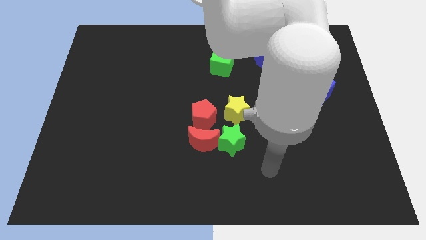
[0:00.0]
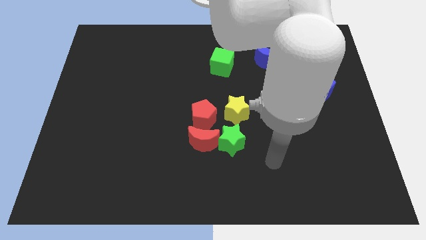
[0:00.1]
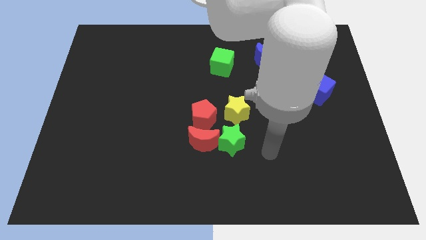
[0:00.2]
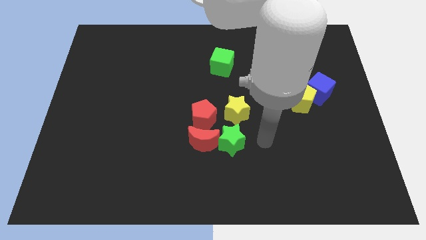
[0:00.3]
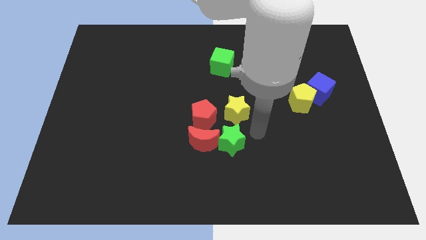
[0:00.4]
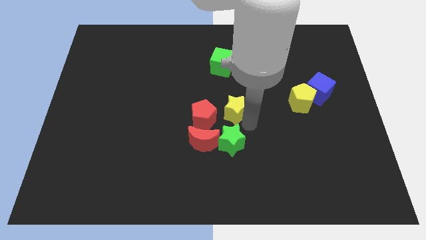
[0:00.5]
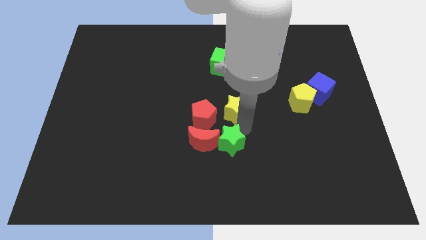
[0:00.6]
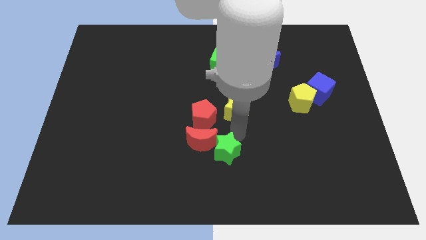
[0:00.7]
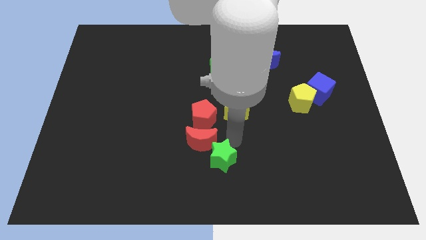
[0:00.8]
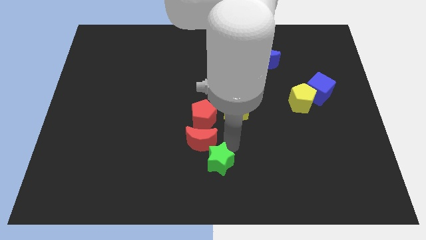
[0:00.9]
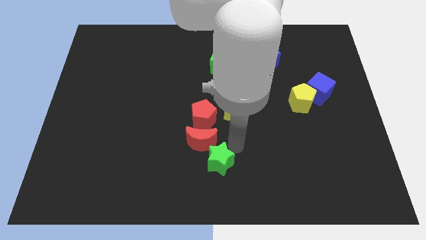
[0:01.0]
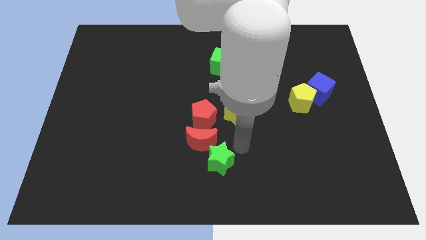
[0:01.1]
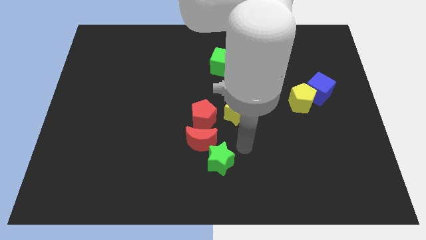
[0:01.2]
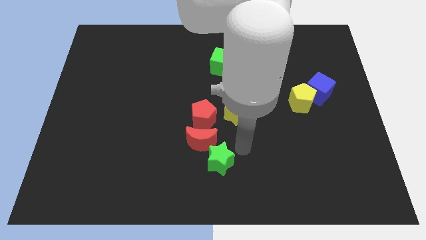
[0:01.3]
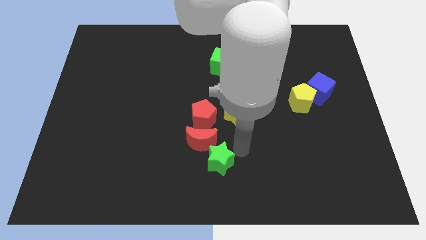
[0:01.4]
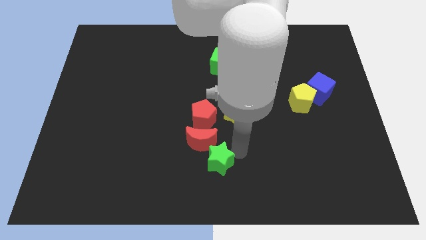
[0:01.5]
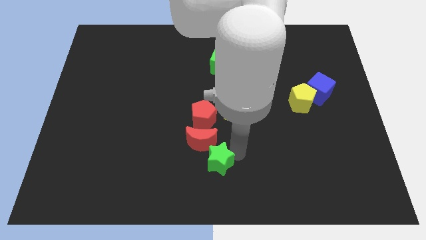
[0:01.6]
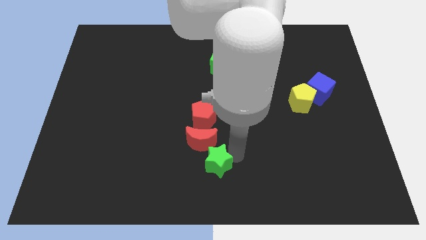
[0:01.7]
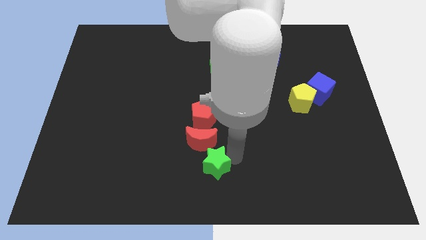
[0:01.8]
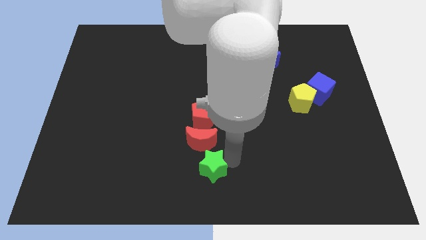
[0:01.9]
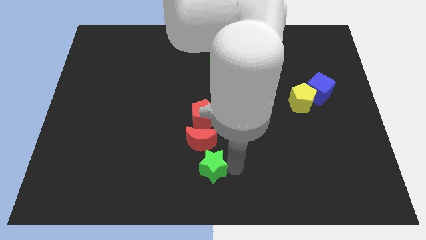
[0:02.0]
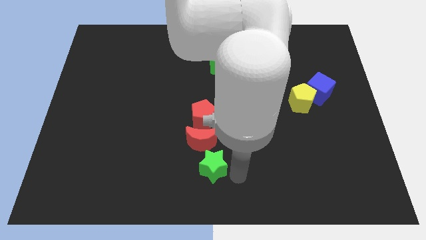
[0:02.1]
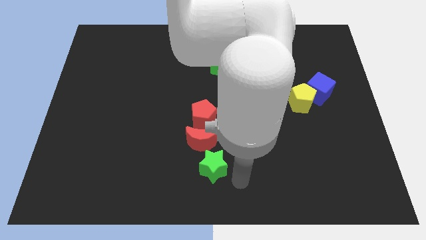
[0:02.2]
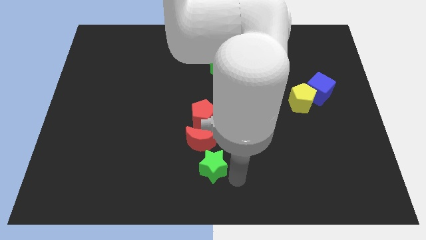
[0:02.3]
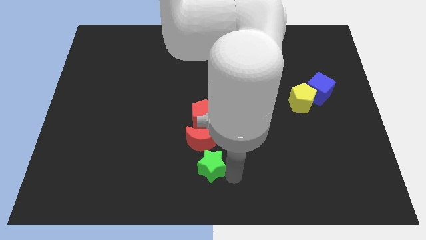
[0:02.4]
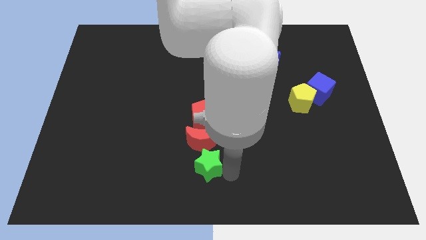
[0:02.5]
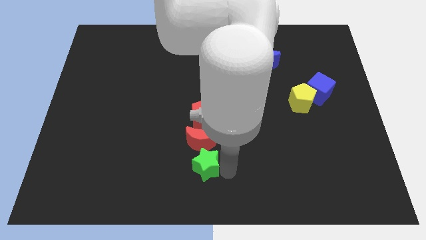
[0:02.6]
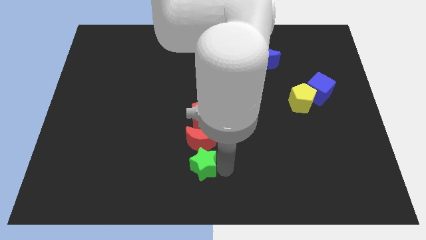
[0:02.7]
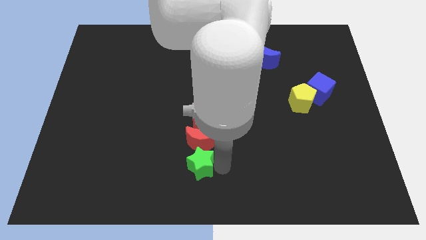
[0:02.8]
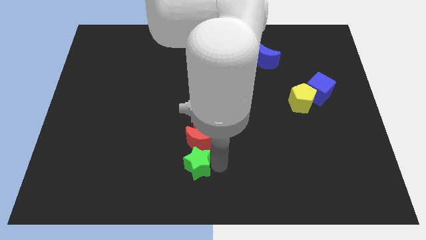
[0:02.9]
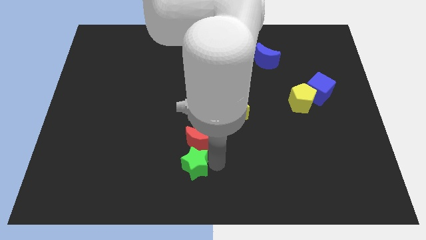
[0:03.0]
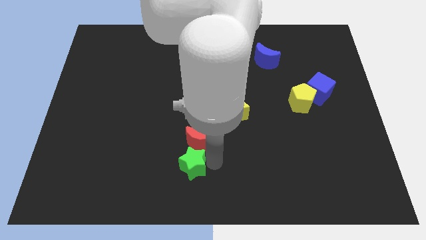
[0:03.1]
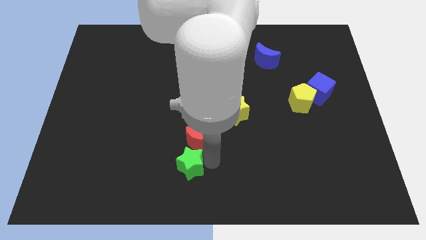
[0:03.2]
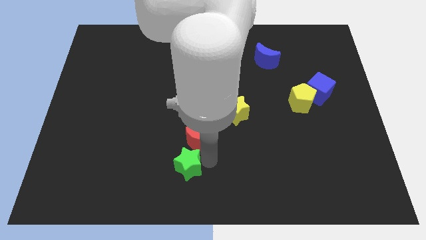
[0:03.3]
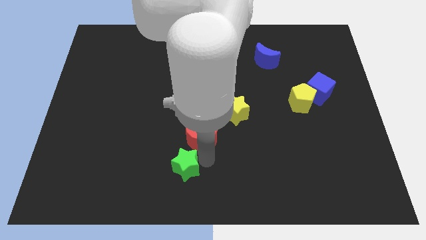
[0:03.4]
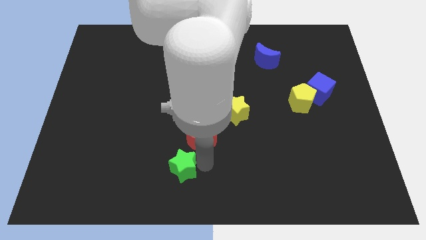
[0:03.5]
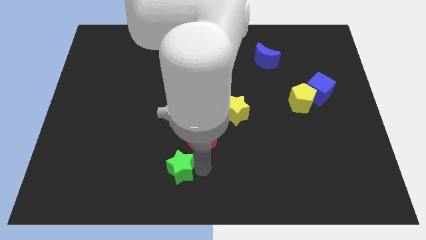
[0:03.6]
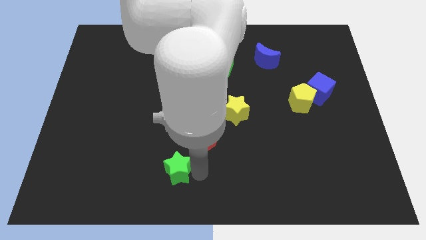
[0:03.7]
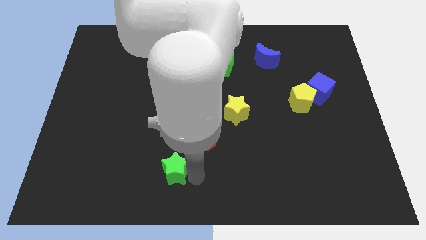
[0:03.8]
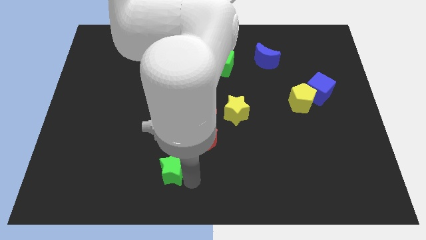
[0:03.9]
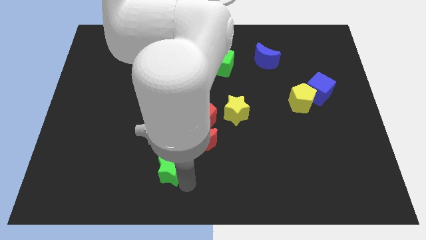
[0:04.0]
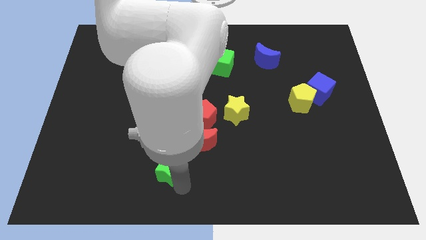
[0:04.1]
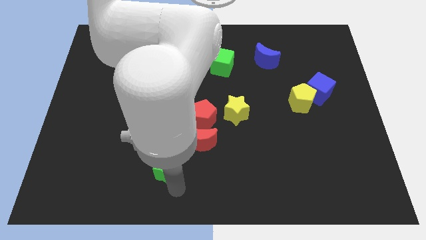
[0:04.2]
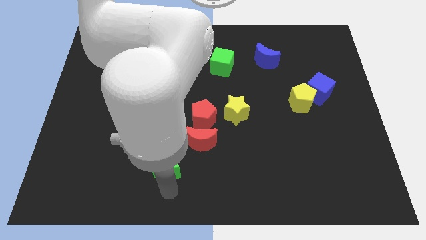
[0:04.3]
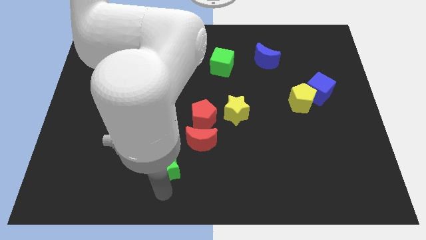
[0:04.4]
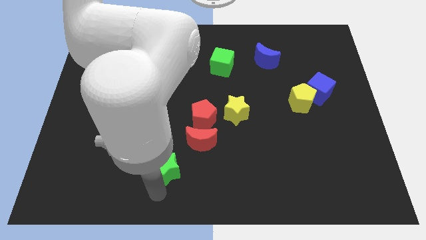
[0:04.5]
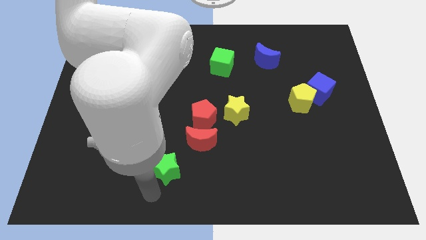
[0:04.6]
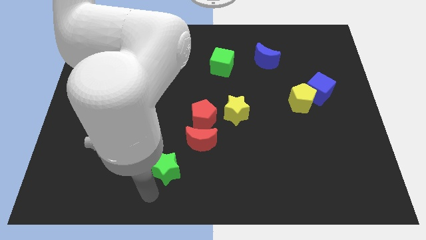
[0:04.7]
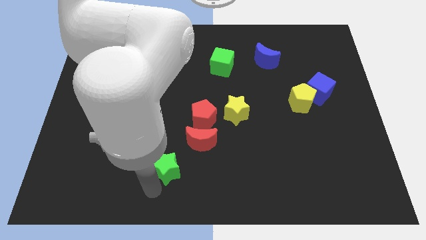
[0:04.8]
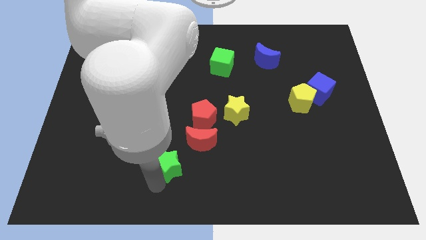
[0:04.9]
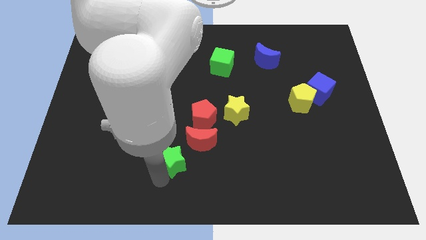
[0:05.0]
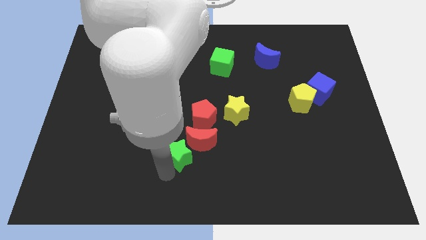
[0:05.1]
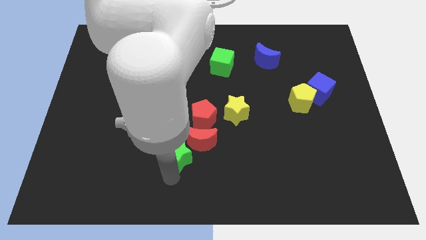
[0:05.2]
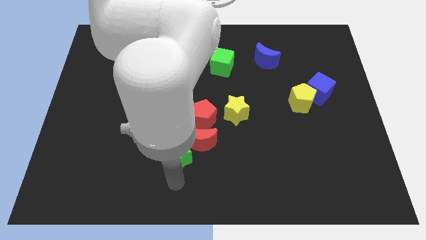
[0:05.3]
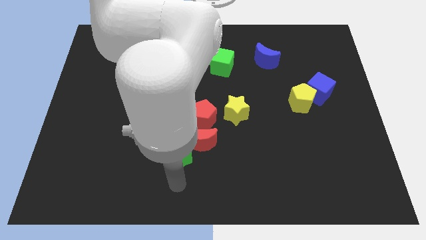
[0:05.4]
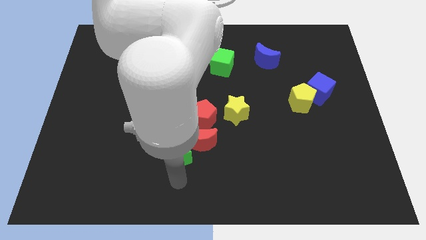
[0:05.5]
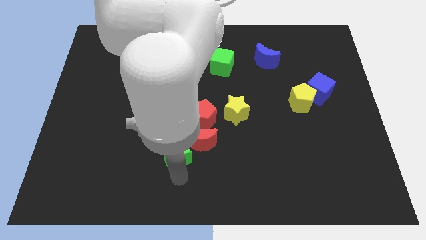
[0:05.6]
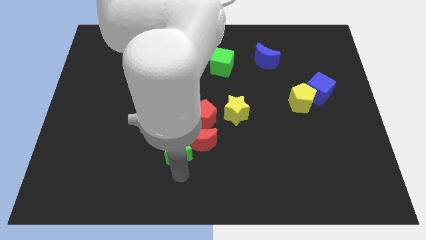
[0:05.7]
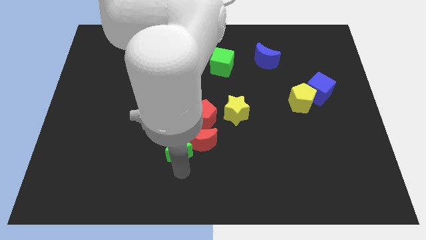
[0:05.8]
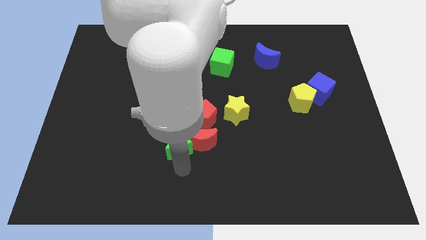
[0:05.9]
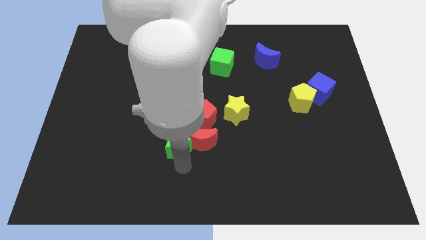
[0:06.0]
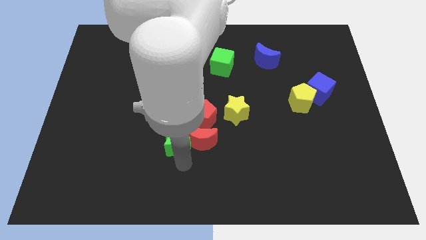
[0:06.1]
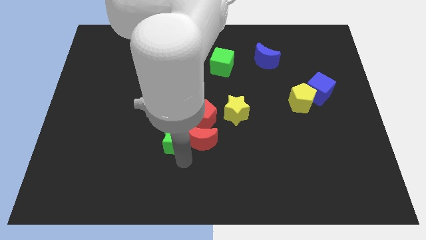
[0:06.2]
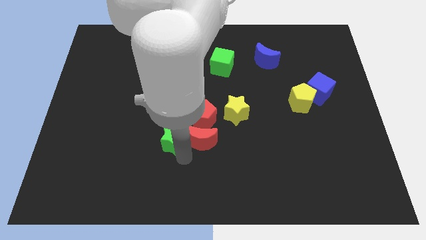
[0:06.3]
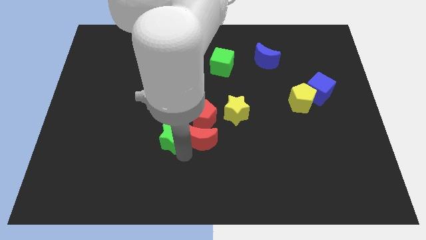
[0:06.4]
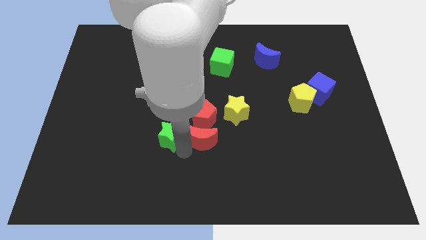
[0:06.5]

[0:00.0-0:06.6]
slide the green star a bit upwards and left diagonally

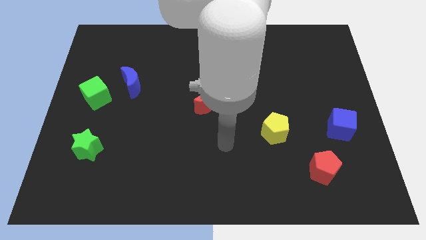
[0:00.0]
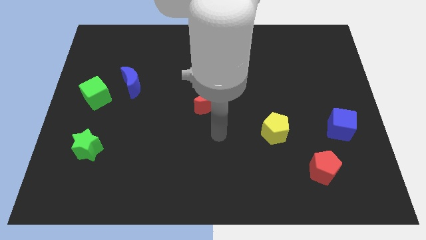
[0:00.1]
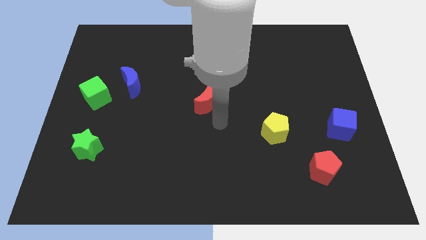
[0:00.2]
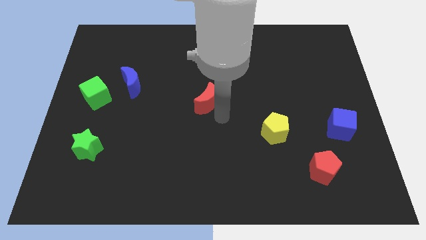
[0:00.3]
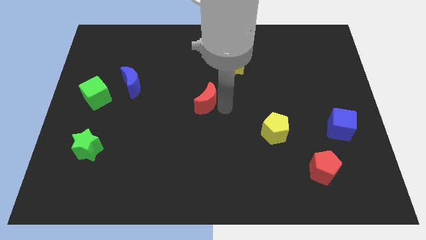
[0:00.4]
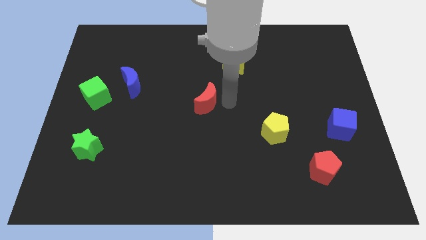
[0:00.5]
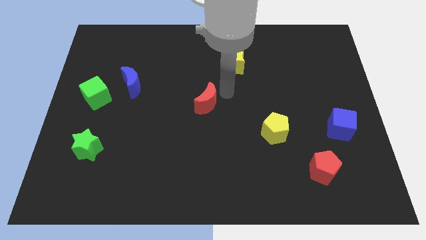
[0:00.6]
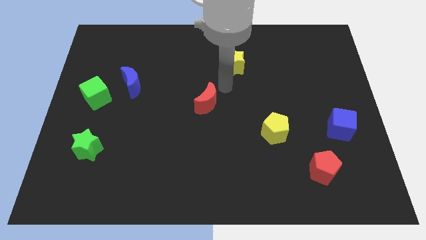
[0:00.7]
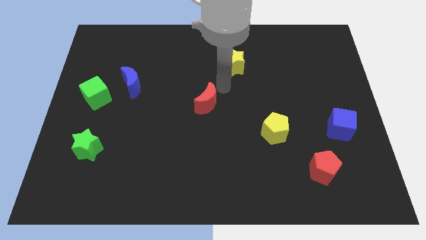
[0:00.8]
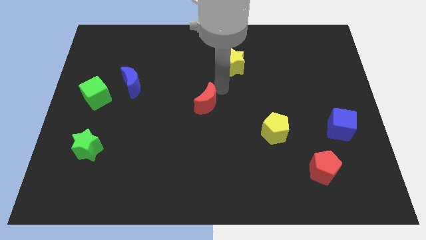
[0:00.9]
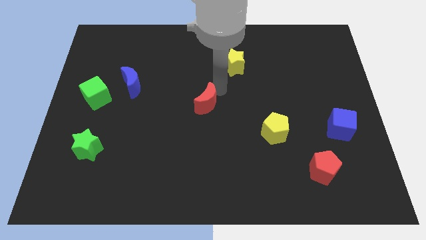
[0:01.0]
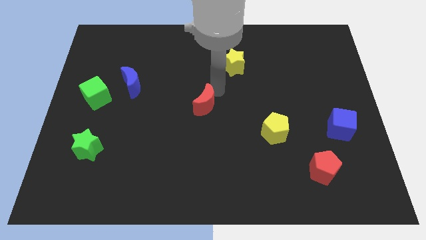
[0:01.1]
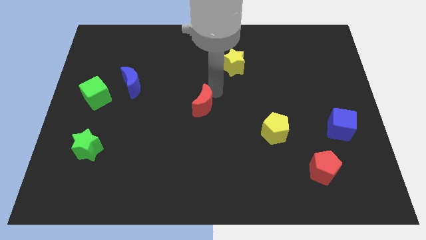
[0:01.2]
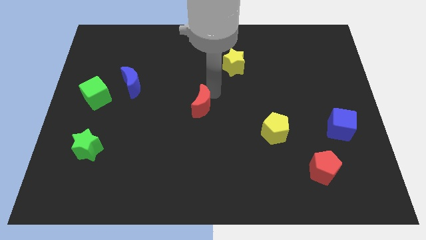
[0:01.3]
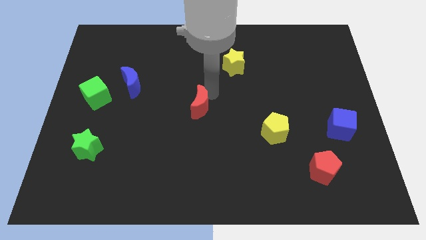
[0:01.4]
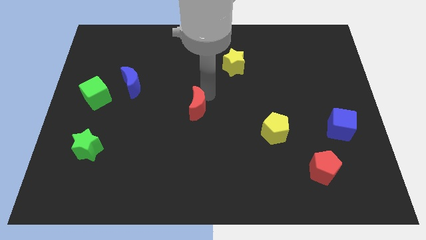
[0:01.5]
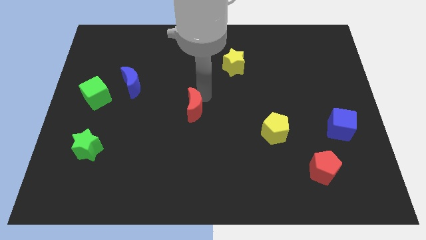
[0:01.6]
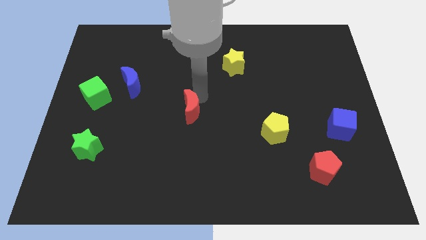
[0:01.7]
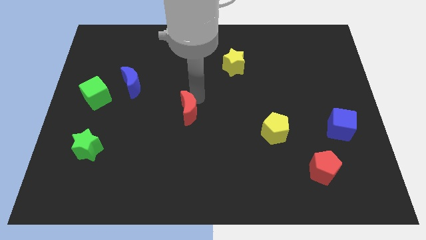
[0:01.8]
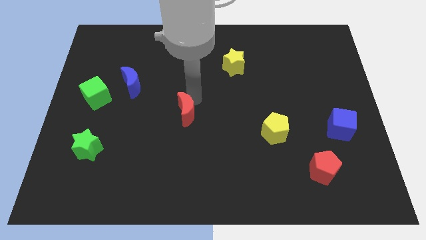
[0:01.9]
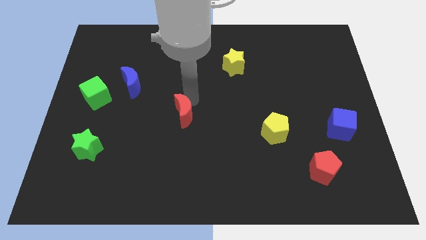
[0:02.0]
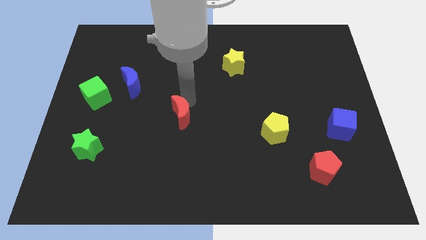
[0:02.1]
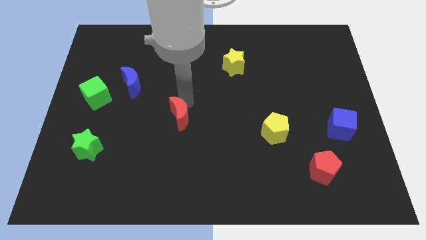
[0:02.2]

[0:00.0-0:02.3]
slide the red moon down and left a bit
